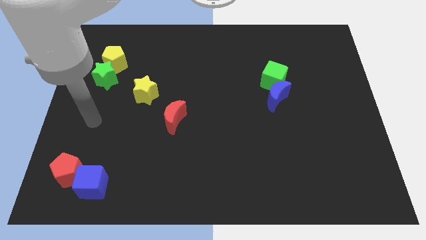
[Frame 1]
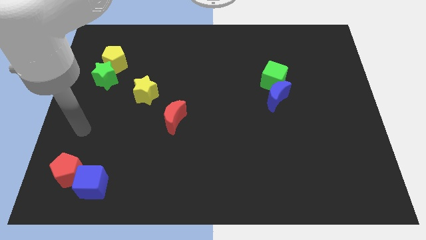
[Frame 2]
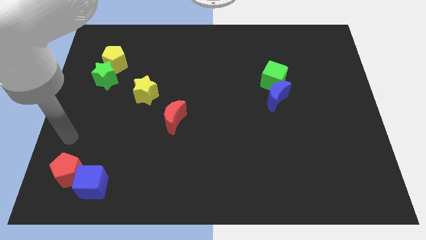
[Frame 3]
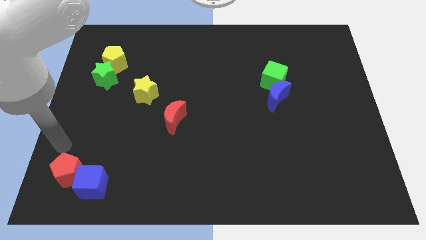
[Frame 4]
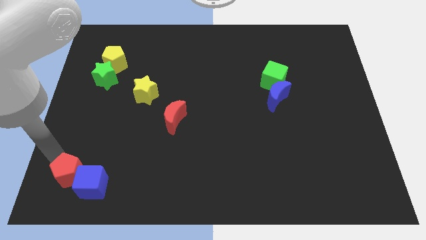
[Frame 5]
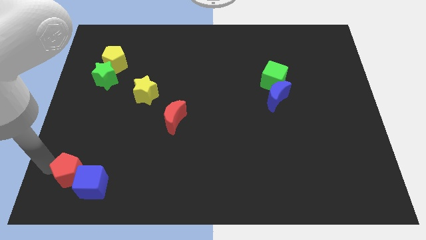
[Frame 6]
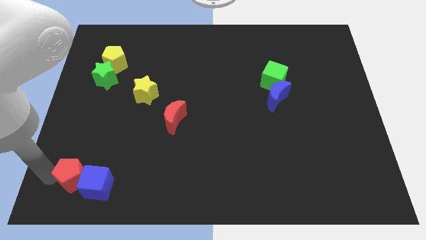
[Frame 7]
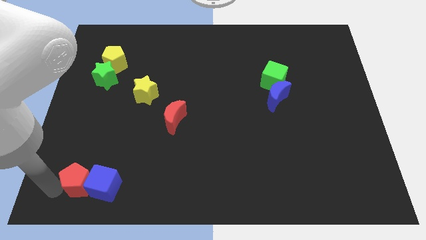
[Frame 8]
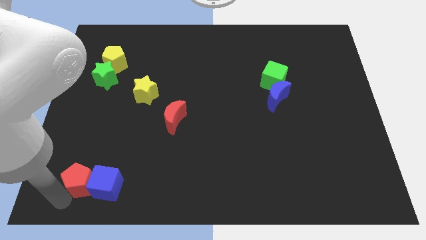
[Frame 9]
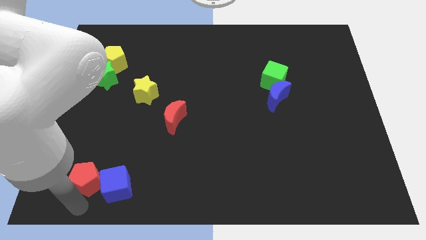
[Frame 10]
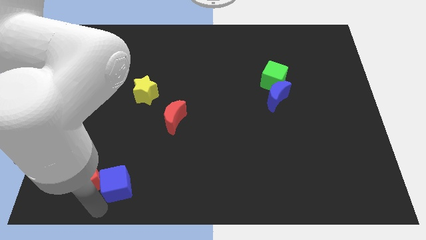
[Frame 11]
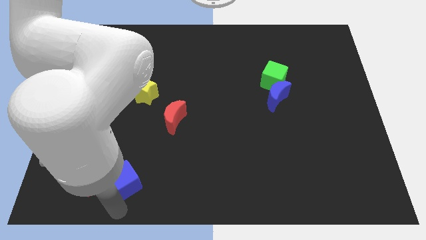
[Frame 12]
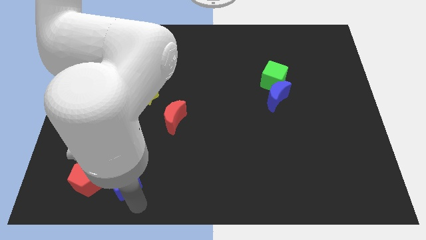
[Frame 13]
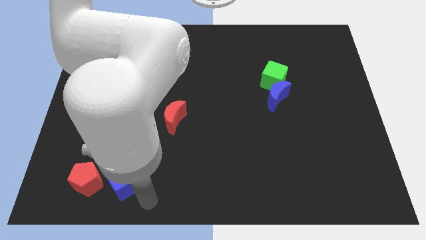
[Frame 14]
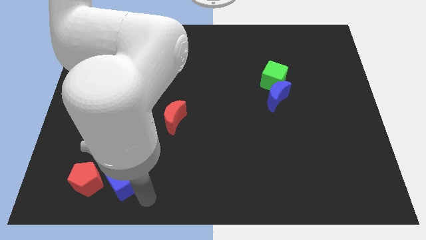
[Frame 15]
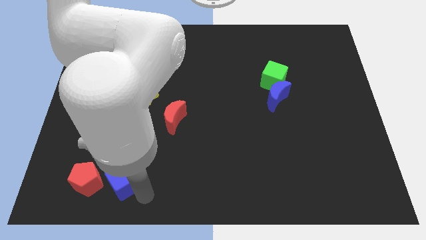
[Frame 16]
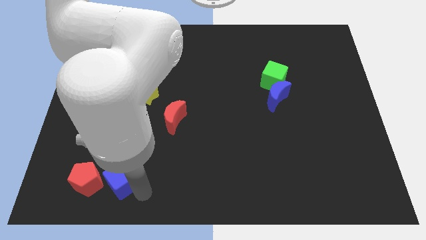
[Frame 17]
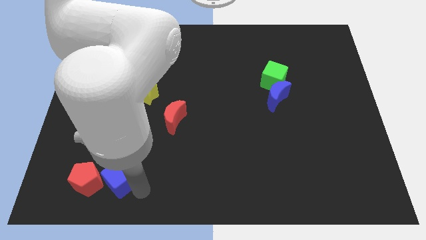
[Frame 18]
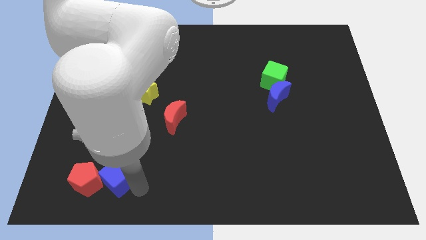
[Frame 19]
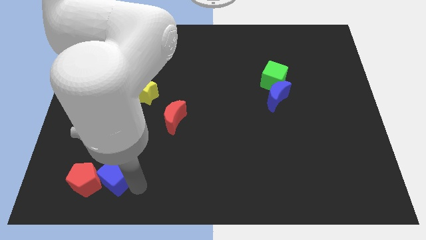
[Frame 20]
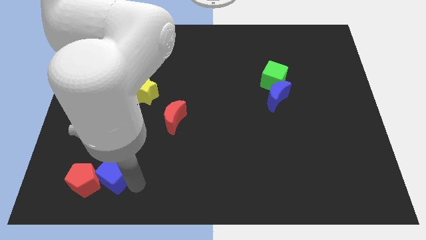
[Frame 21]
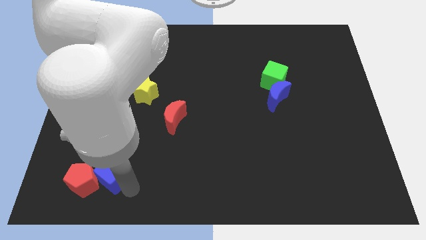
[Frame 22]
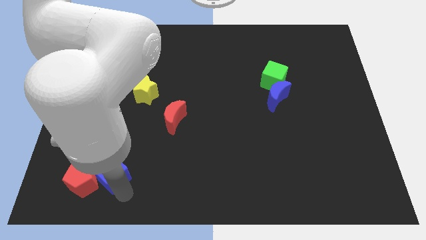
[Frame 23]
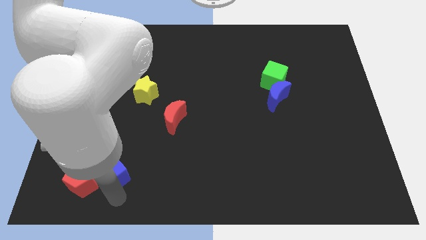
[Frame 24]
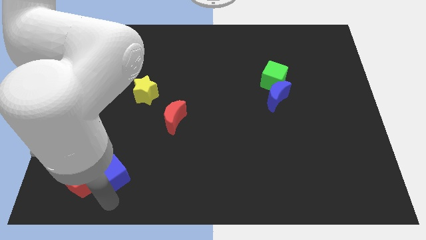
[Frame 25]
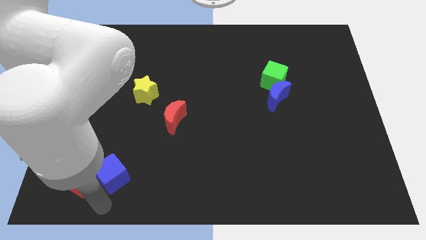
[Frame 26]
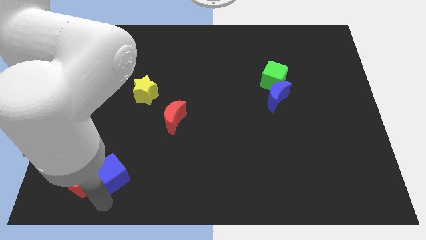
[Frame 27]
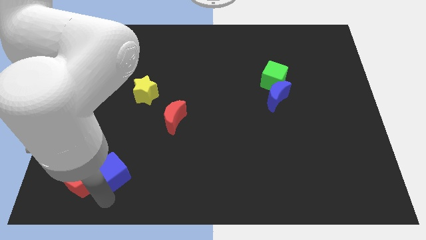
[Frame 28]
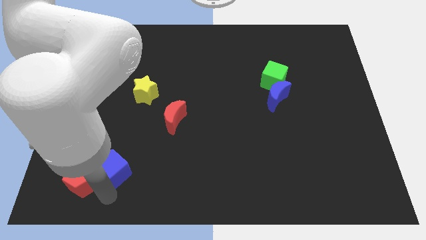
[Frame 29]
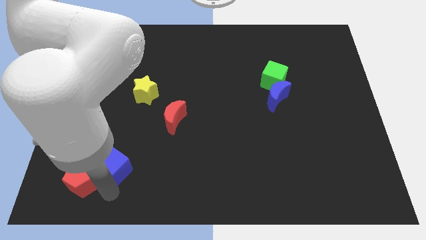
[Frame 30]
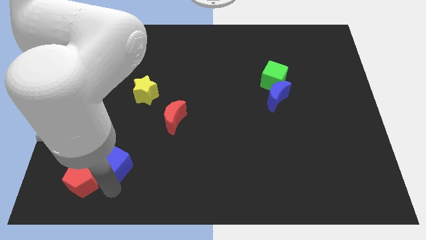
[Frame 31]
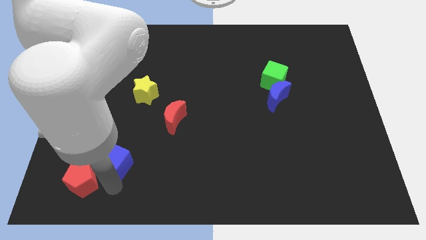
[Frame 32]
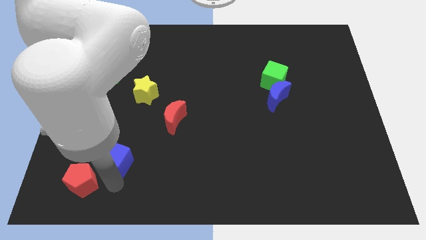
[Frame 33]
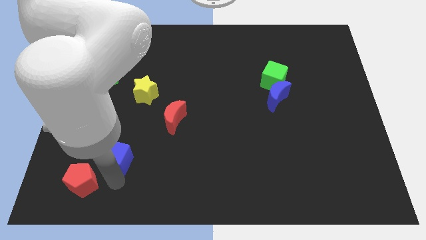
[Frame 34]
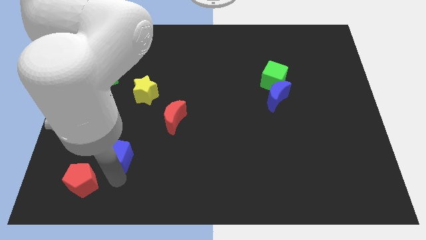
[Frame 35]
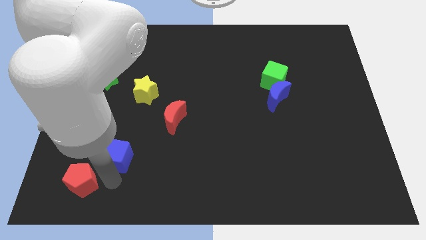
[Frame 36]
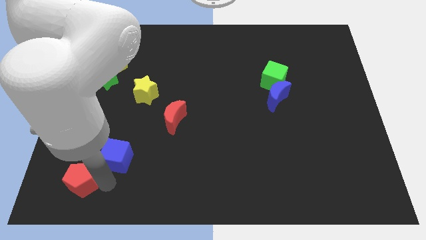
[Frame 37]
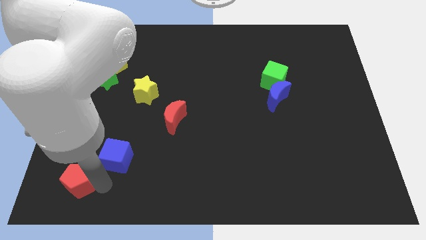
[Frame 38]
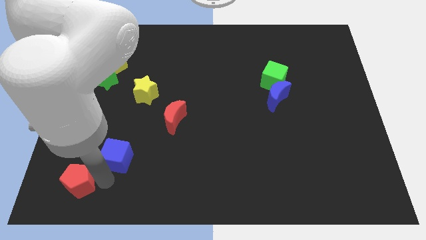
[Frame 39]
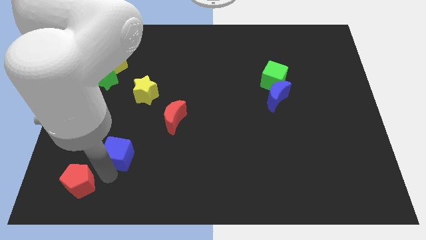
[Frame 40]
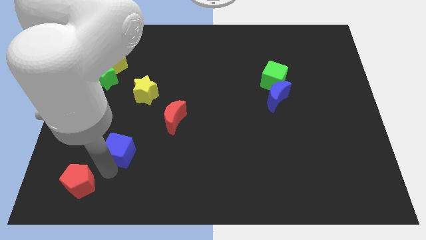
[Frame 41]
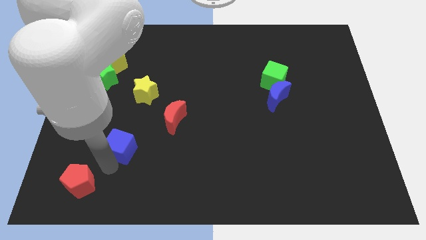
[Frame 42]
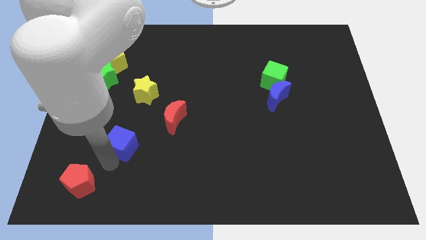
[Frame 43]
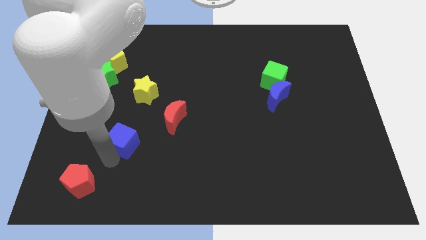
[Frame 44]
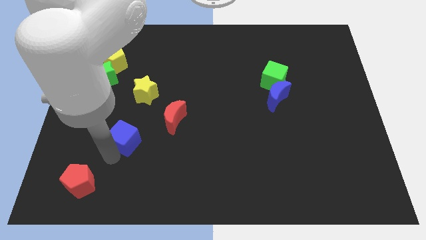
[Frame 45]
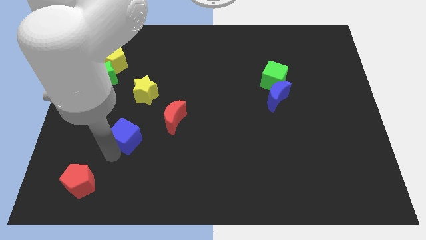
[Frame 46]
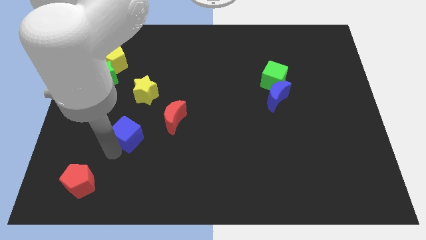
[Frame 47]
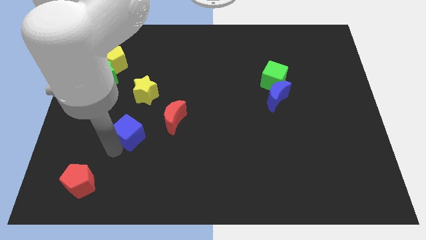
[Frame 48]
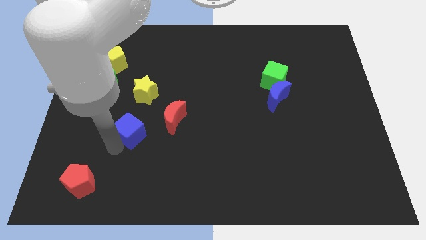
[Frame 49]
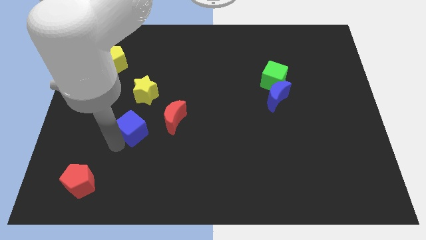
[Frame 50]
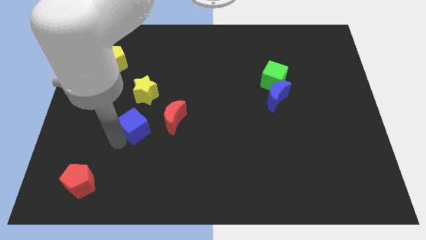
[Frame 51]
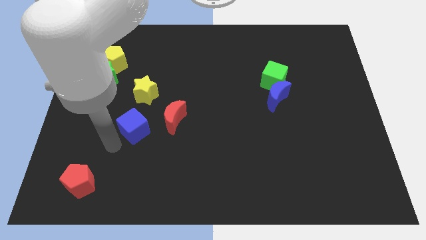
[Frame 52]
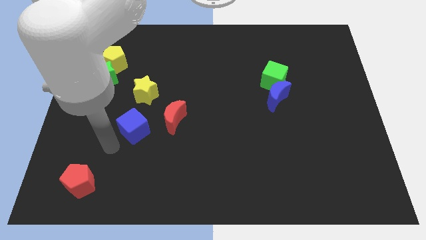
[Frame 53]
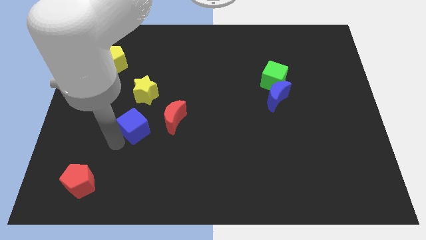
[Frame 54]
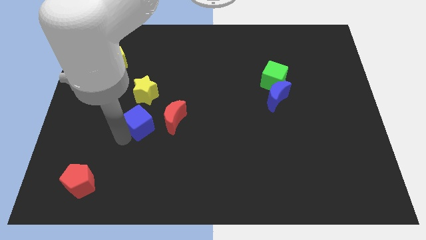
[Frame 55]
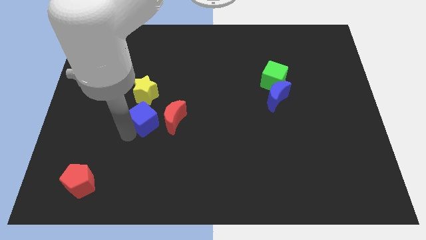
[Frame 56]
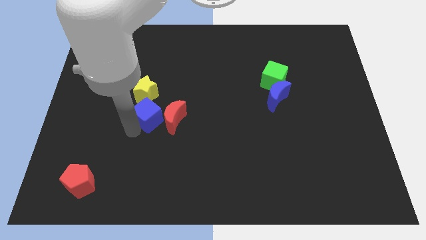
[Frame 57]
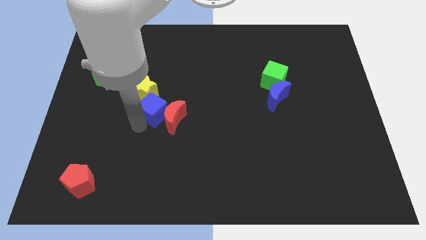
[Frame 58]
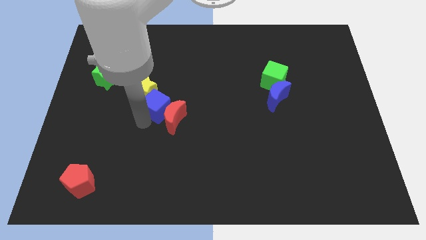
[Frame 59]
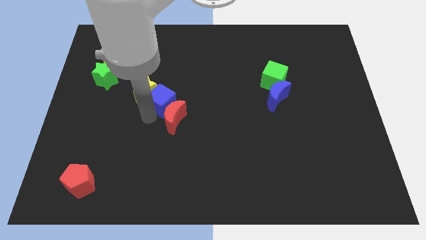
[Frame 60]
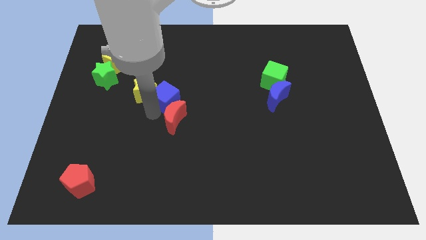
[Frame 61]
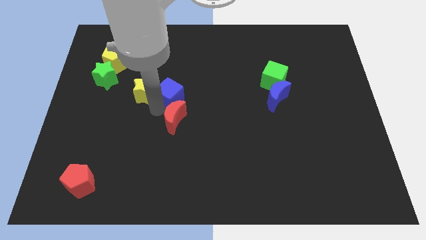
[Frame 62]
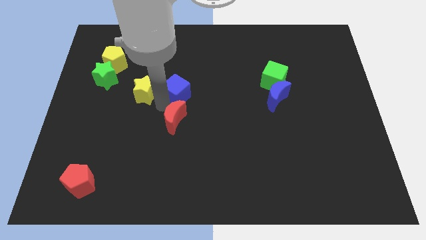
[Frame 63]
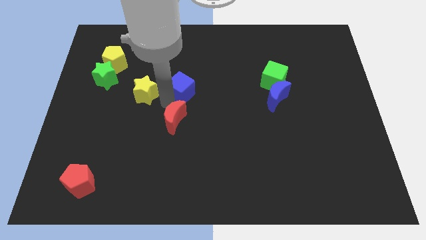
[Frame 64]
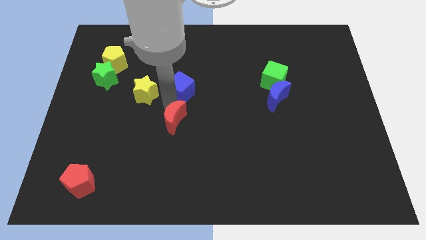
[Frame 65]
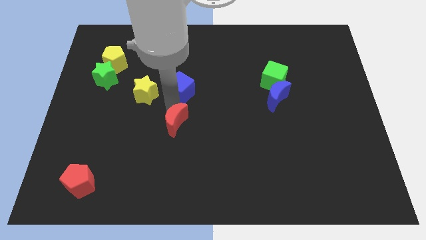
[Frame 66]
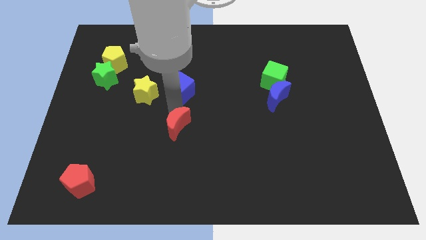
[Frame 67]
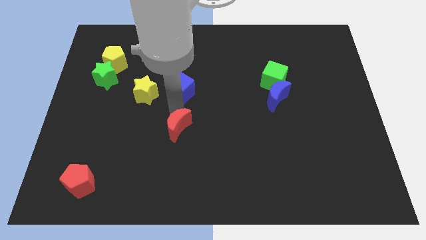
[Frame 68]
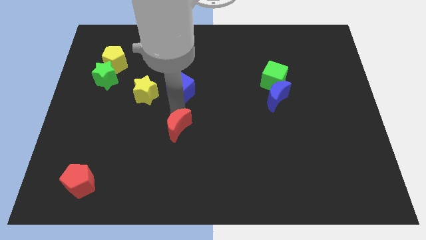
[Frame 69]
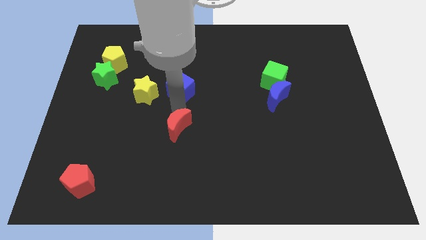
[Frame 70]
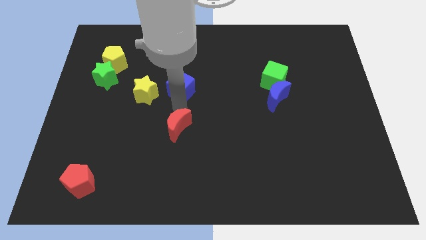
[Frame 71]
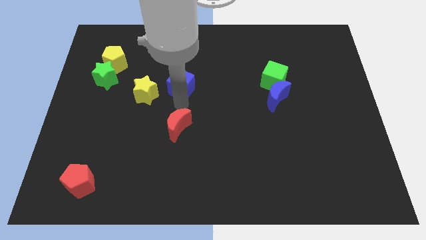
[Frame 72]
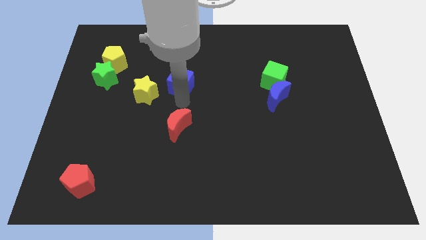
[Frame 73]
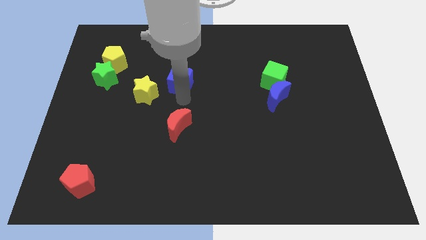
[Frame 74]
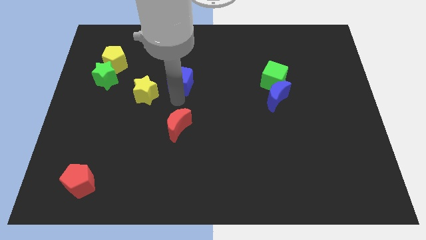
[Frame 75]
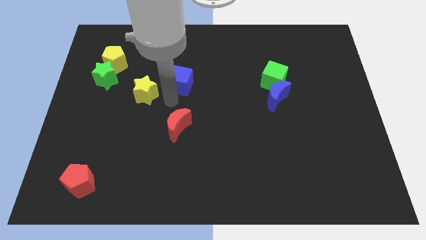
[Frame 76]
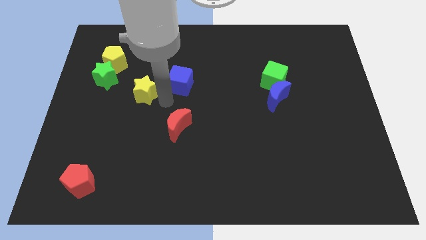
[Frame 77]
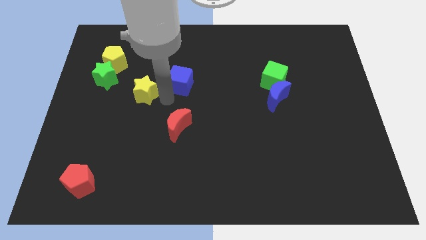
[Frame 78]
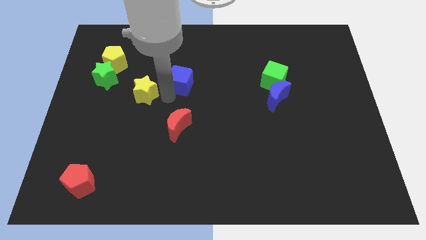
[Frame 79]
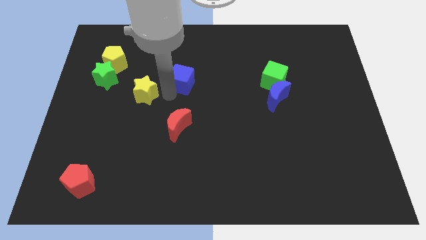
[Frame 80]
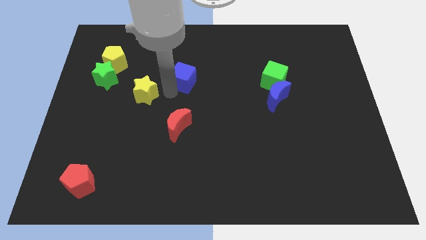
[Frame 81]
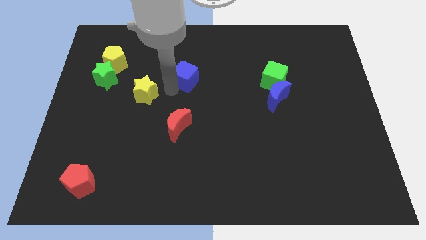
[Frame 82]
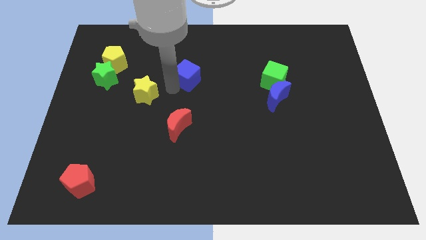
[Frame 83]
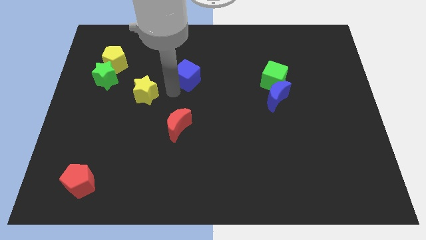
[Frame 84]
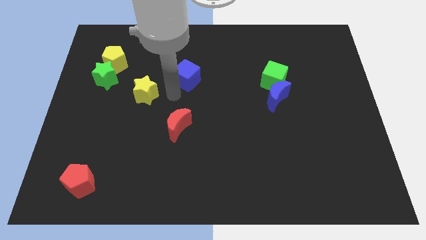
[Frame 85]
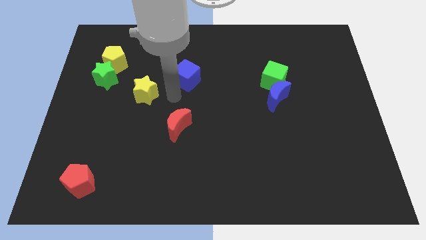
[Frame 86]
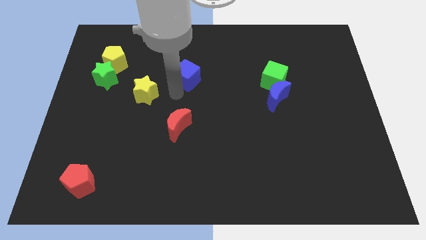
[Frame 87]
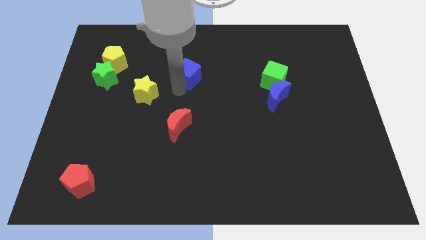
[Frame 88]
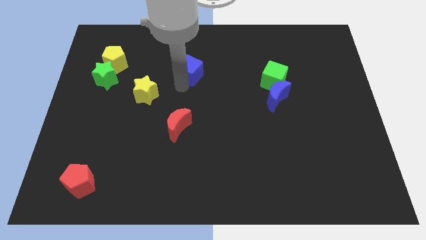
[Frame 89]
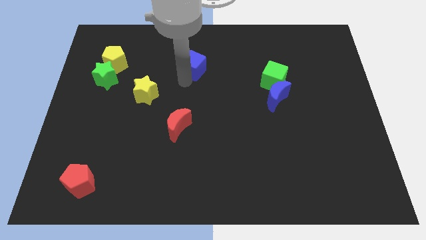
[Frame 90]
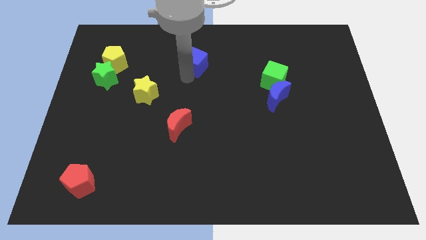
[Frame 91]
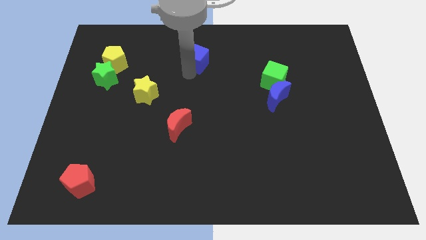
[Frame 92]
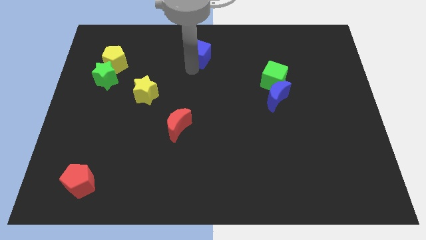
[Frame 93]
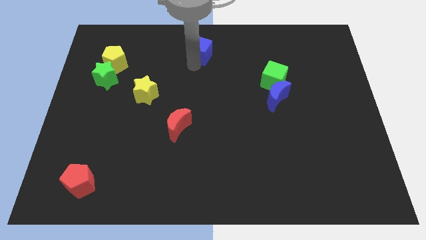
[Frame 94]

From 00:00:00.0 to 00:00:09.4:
move the blue cube to the top side
